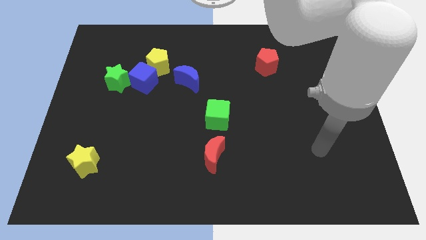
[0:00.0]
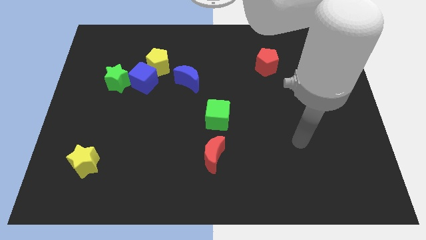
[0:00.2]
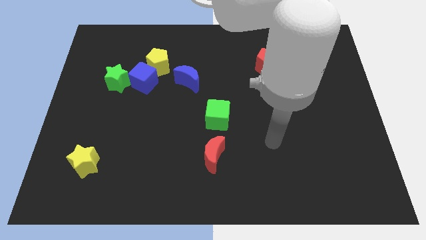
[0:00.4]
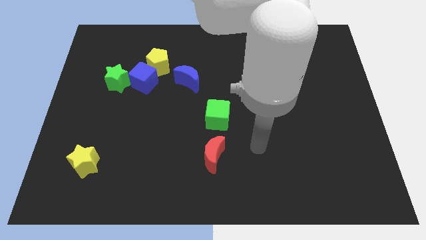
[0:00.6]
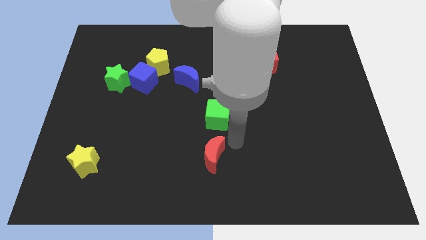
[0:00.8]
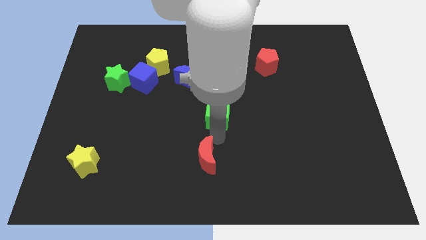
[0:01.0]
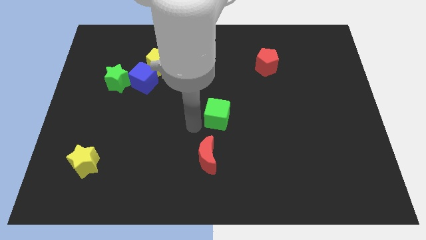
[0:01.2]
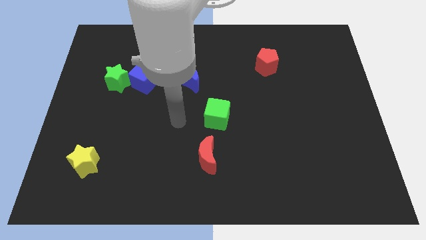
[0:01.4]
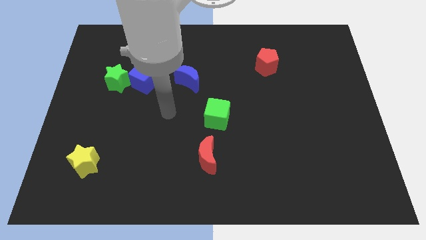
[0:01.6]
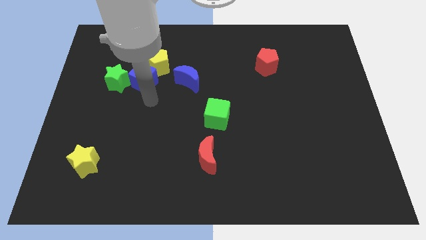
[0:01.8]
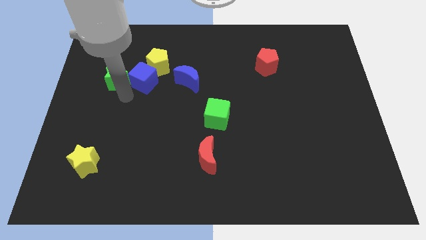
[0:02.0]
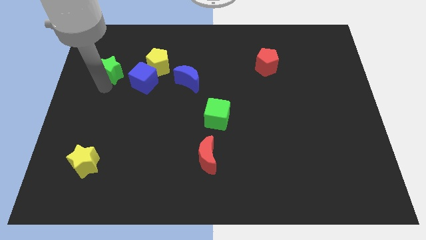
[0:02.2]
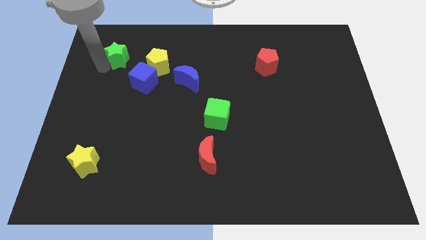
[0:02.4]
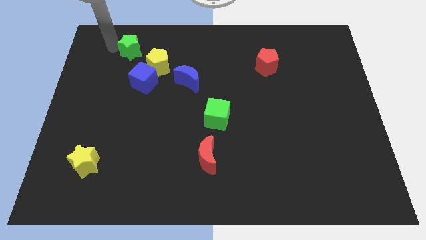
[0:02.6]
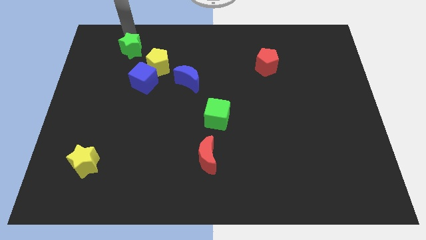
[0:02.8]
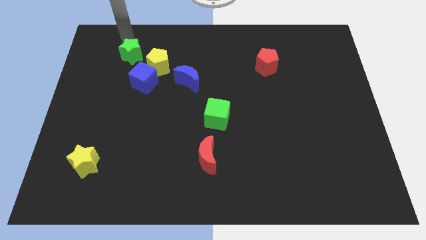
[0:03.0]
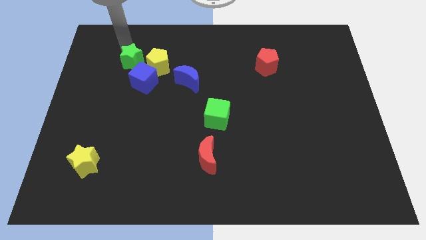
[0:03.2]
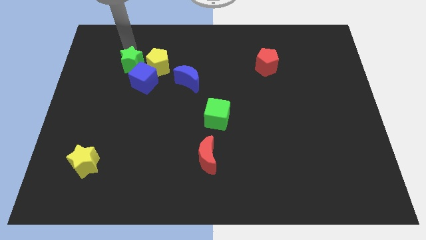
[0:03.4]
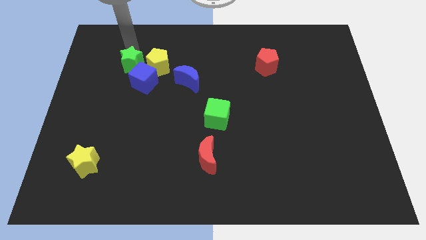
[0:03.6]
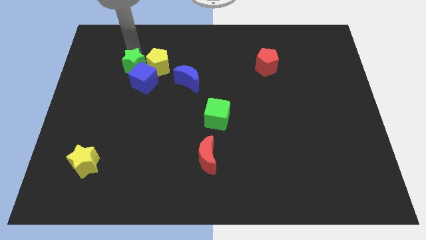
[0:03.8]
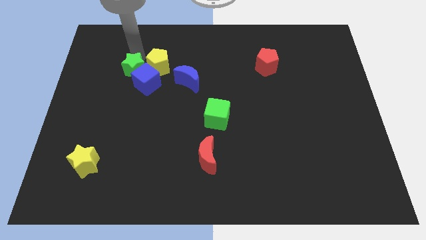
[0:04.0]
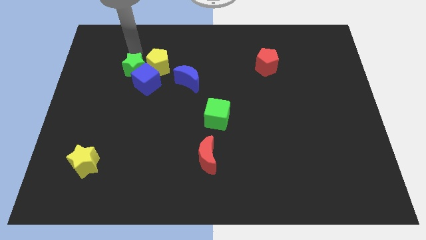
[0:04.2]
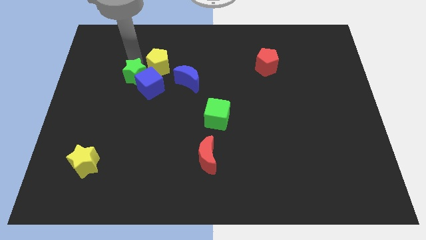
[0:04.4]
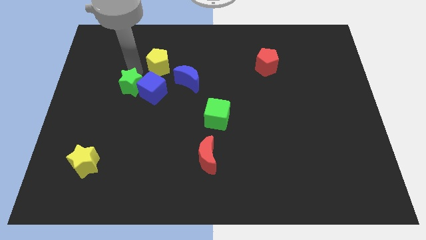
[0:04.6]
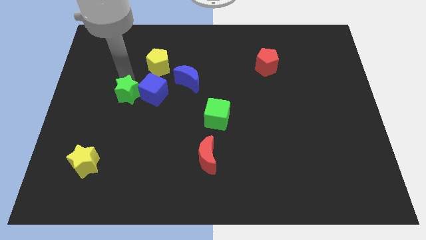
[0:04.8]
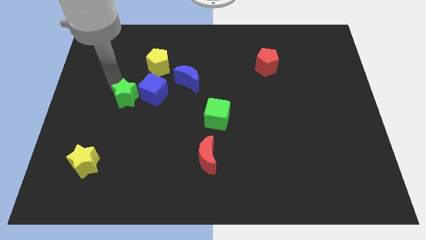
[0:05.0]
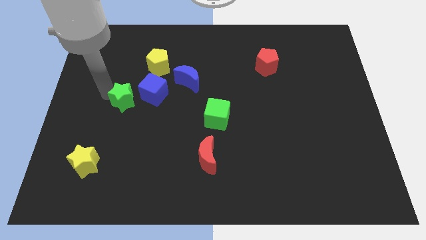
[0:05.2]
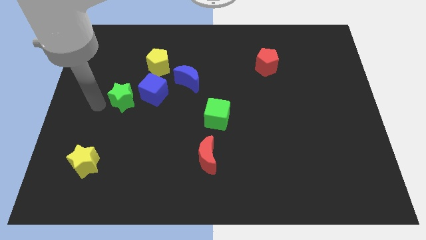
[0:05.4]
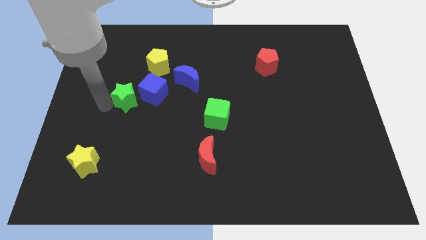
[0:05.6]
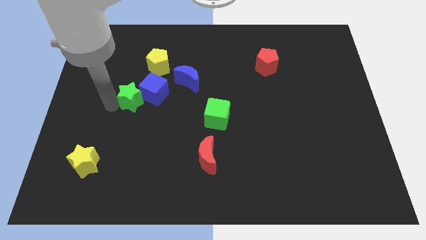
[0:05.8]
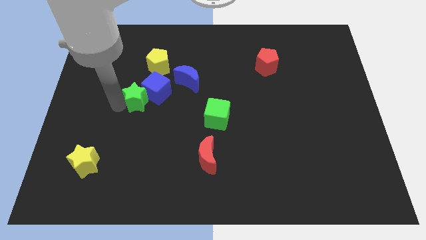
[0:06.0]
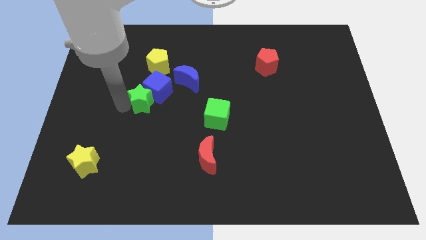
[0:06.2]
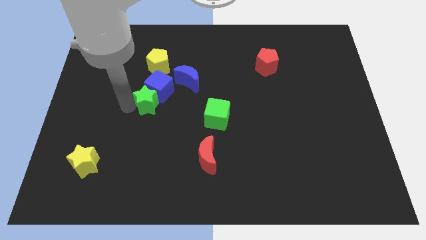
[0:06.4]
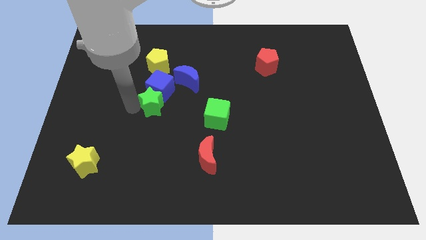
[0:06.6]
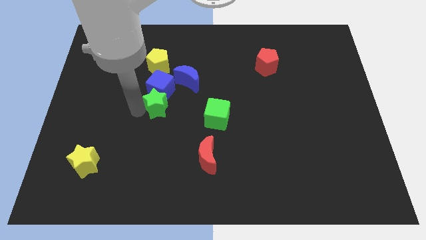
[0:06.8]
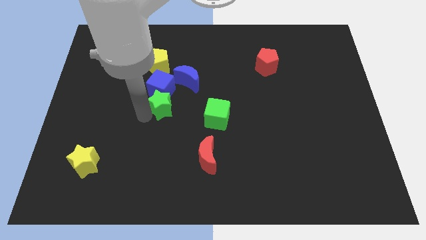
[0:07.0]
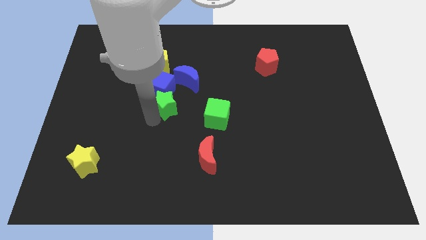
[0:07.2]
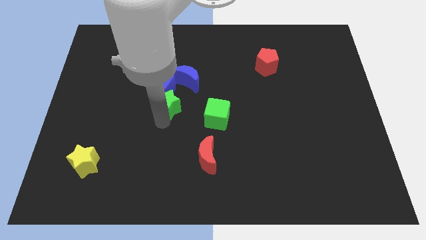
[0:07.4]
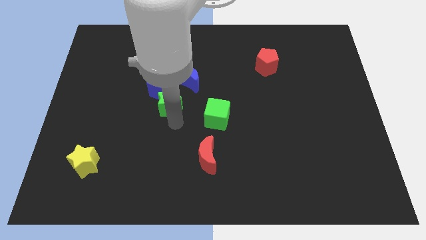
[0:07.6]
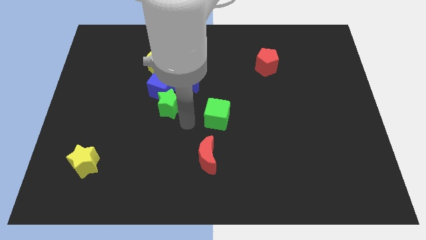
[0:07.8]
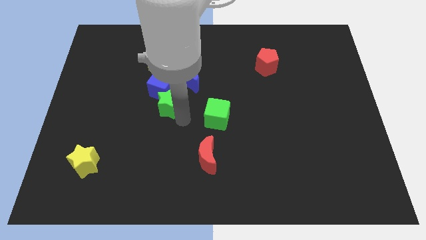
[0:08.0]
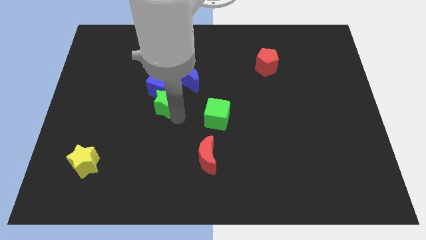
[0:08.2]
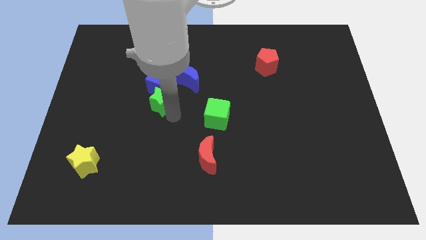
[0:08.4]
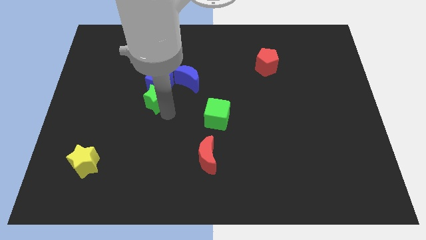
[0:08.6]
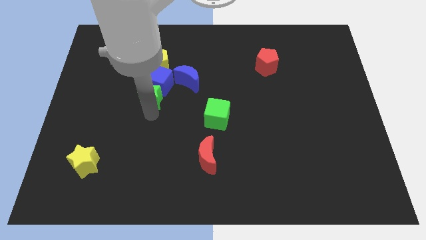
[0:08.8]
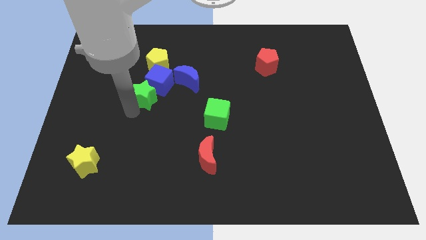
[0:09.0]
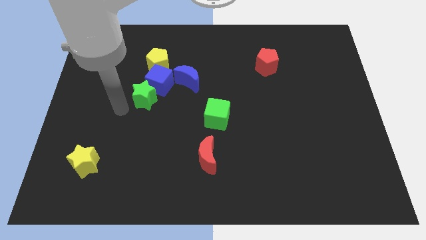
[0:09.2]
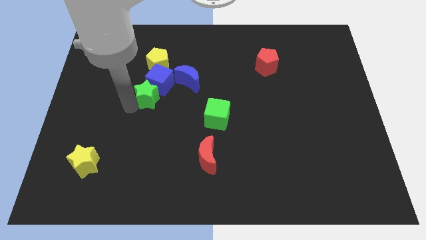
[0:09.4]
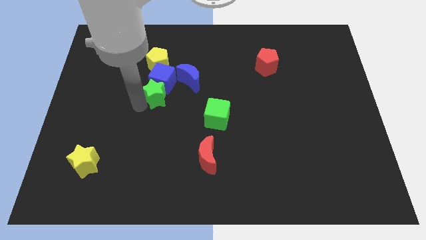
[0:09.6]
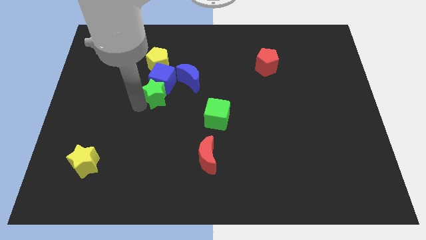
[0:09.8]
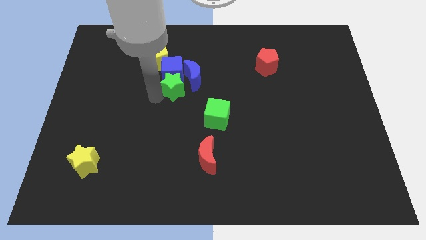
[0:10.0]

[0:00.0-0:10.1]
put the green star close to the blue moon

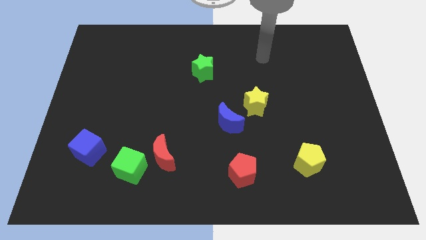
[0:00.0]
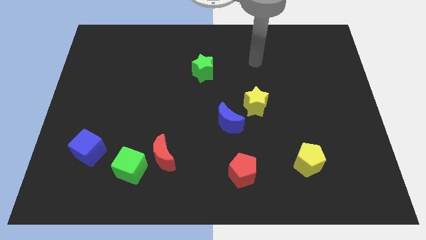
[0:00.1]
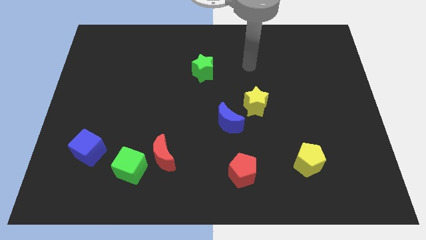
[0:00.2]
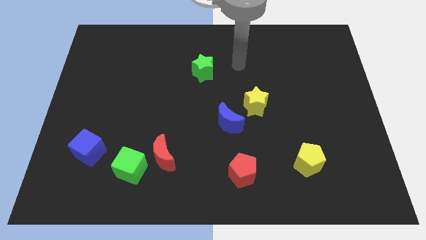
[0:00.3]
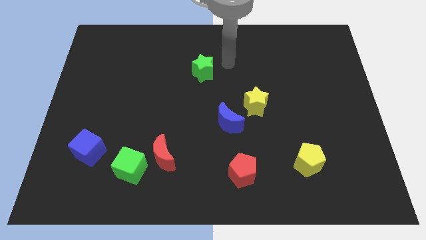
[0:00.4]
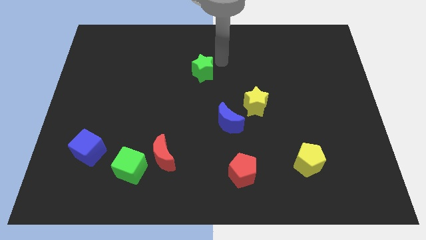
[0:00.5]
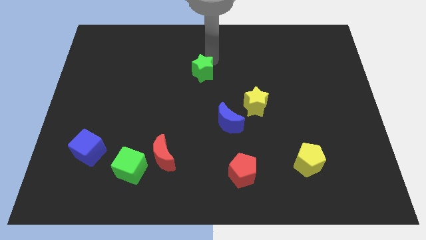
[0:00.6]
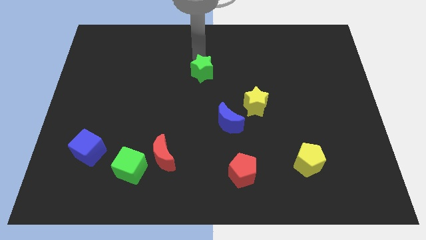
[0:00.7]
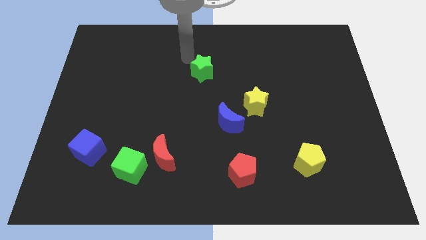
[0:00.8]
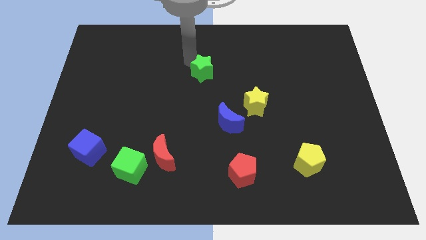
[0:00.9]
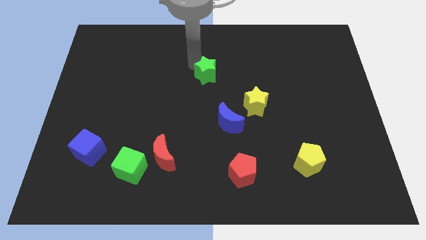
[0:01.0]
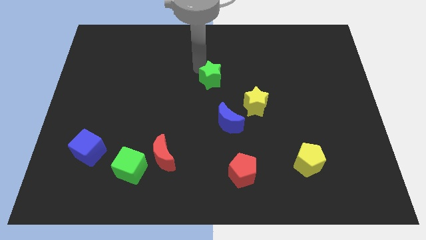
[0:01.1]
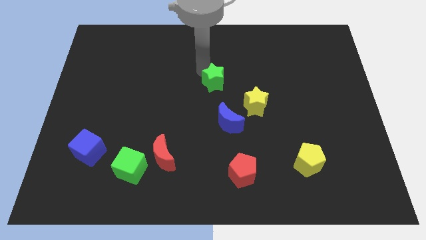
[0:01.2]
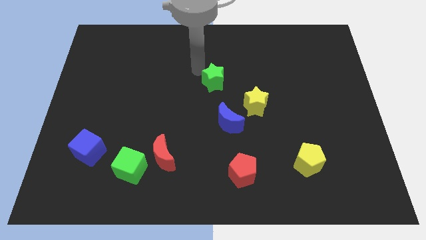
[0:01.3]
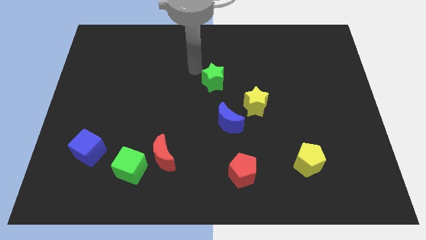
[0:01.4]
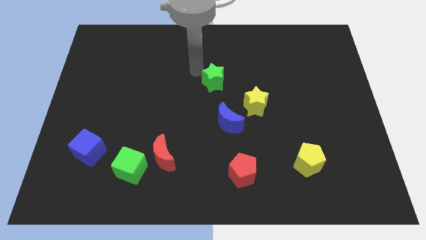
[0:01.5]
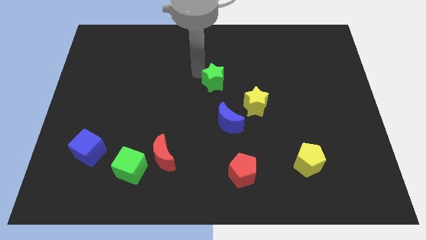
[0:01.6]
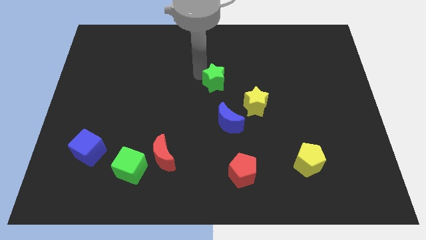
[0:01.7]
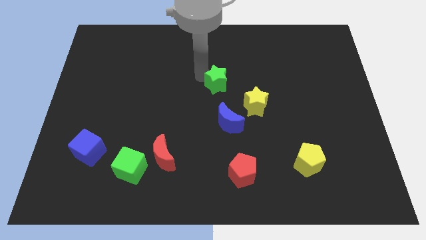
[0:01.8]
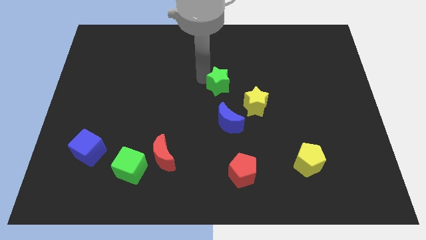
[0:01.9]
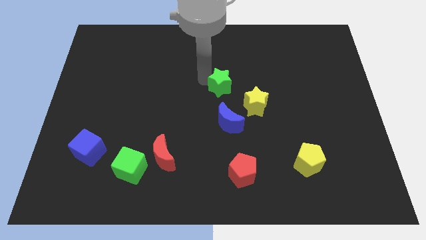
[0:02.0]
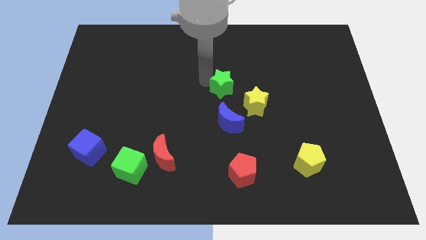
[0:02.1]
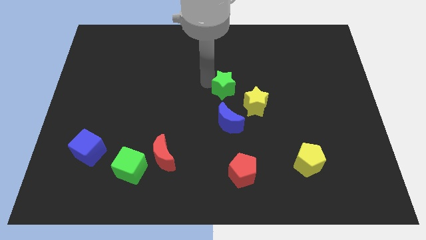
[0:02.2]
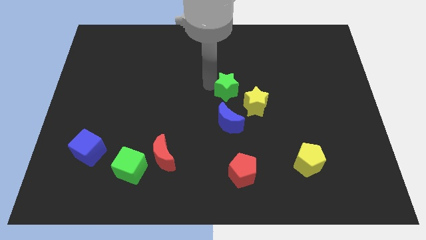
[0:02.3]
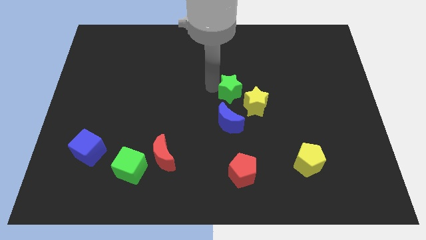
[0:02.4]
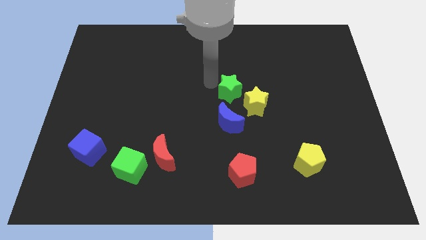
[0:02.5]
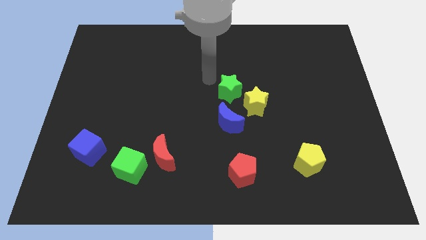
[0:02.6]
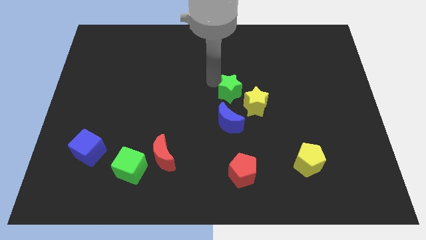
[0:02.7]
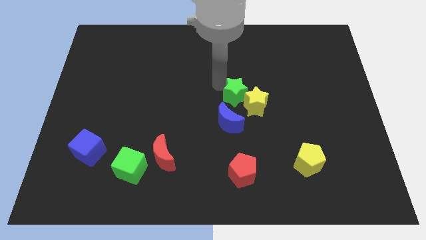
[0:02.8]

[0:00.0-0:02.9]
put the green star close to the yellow star
